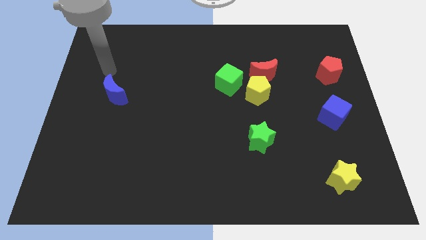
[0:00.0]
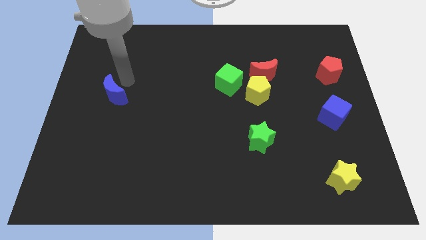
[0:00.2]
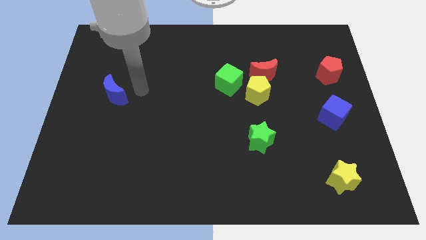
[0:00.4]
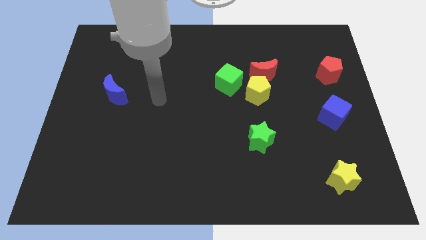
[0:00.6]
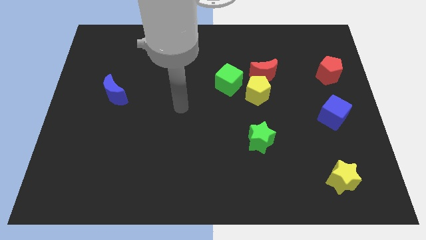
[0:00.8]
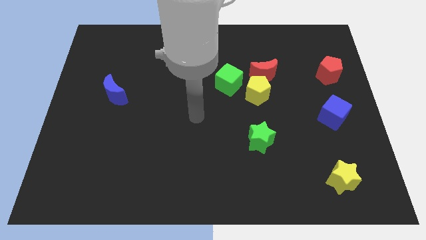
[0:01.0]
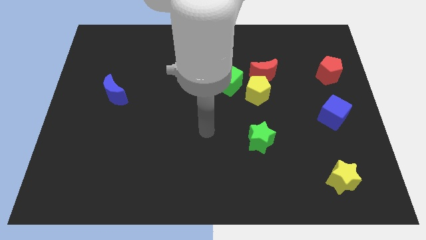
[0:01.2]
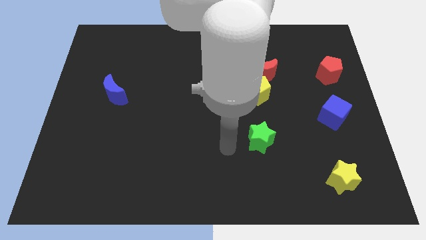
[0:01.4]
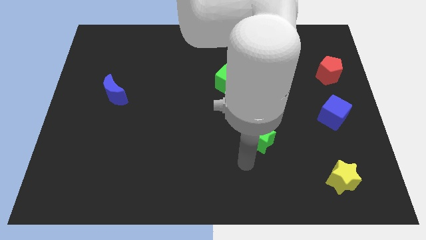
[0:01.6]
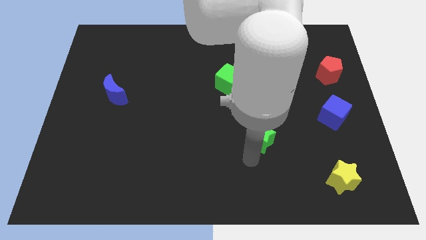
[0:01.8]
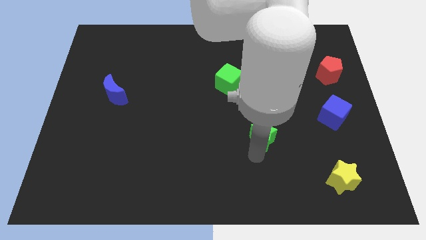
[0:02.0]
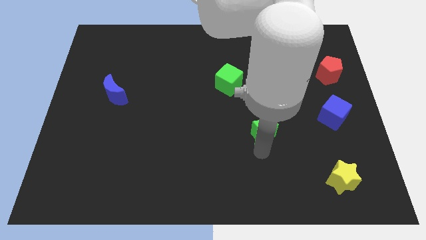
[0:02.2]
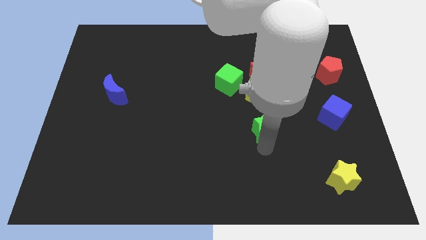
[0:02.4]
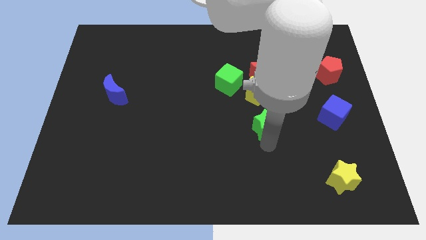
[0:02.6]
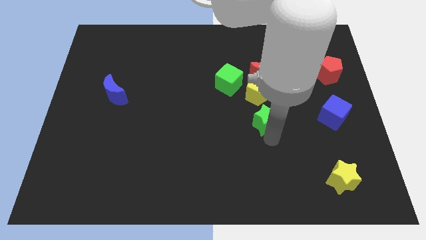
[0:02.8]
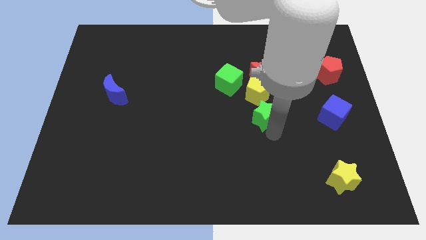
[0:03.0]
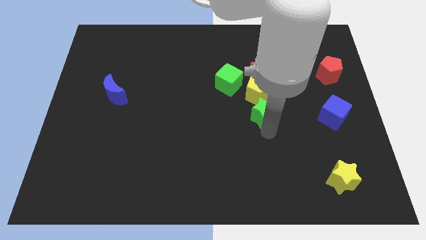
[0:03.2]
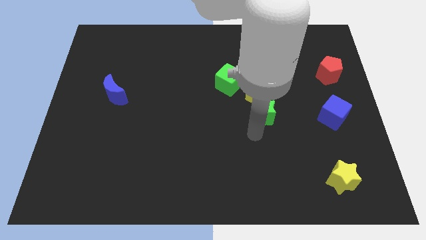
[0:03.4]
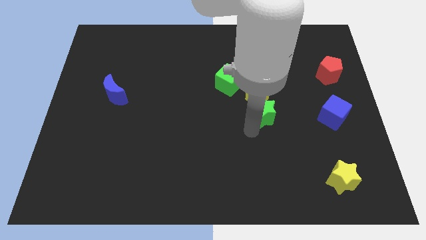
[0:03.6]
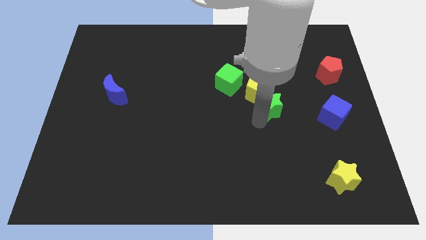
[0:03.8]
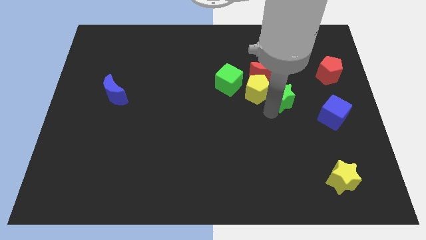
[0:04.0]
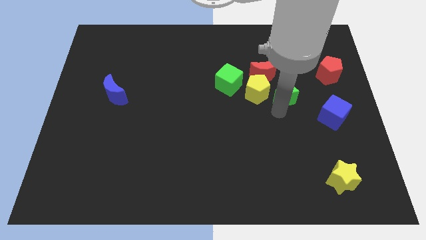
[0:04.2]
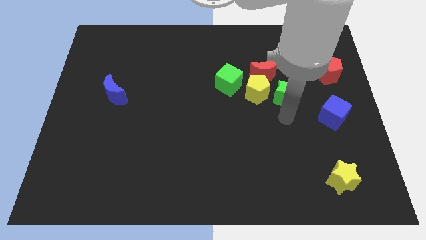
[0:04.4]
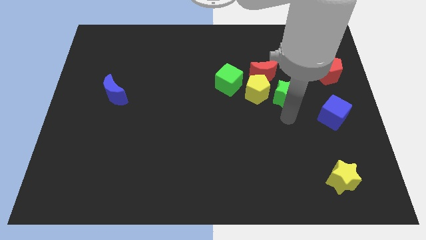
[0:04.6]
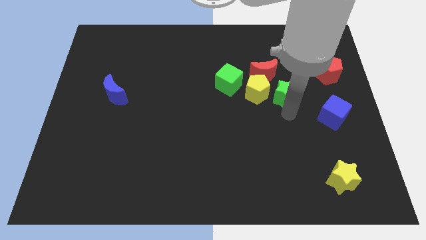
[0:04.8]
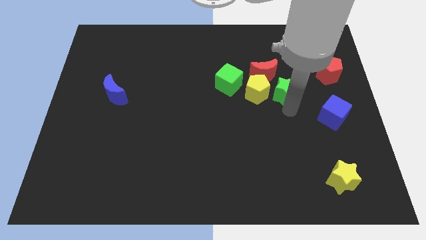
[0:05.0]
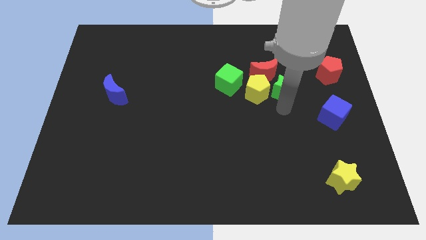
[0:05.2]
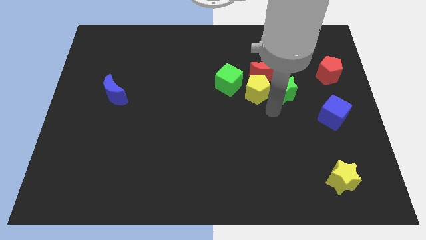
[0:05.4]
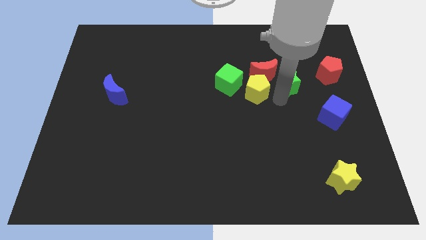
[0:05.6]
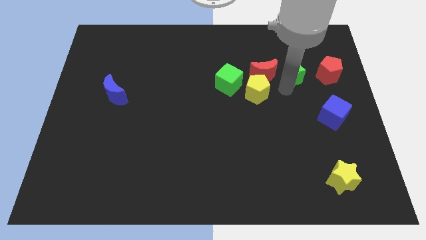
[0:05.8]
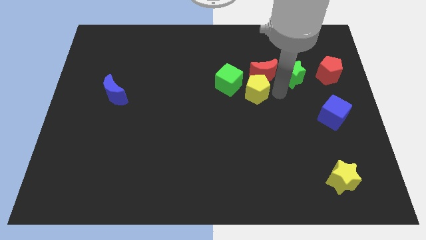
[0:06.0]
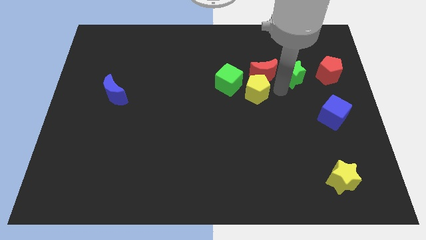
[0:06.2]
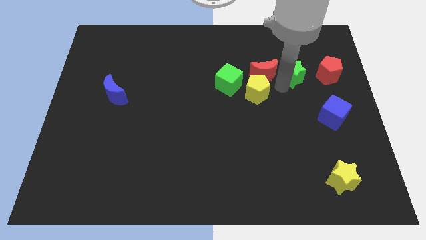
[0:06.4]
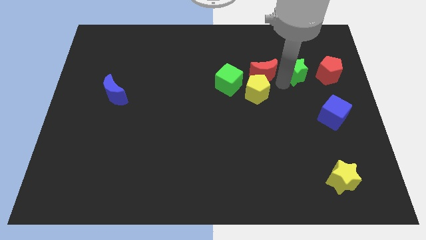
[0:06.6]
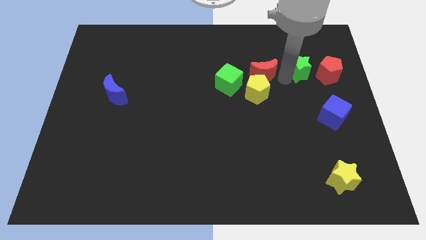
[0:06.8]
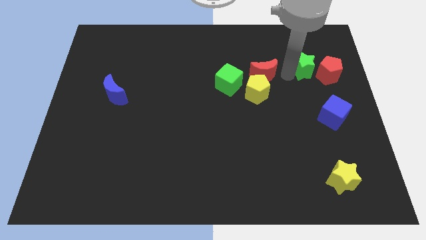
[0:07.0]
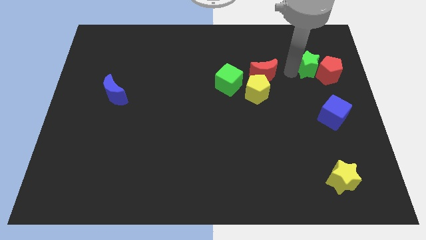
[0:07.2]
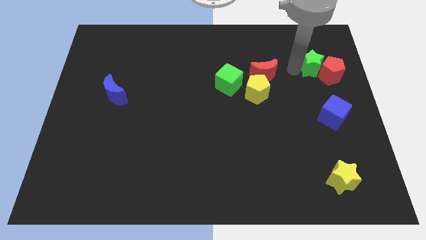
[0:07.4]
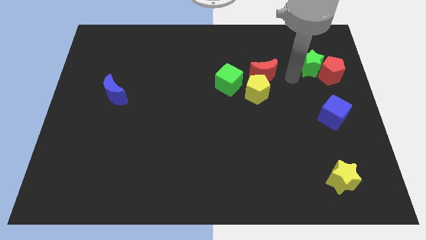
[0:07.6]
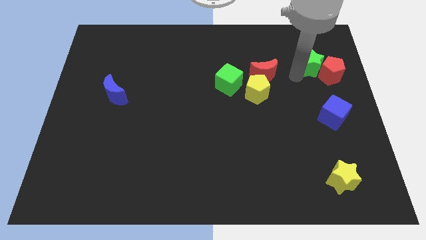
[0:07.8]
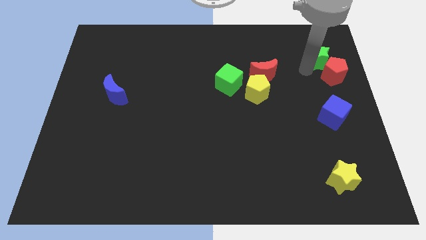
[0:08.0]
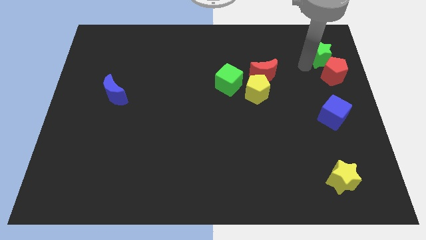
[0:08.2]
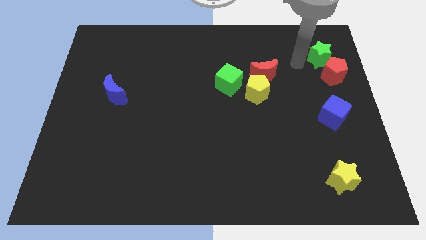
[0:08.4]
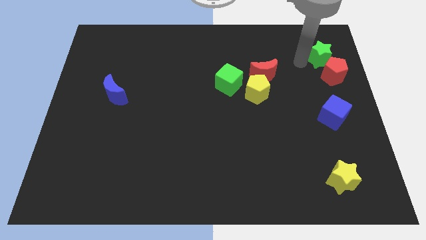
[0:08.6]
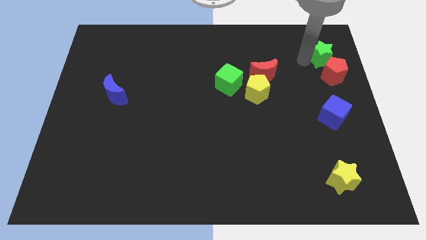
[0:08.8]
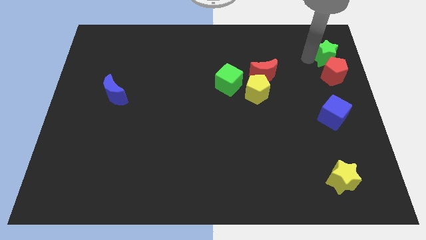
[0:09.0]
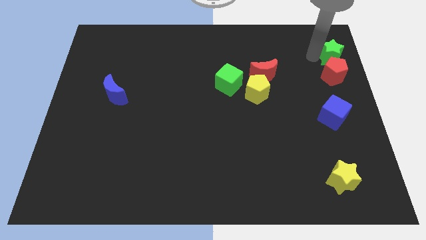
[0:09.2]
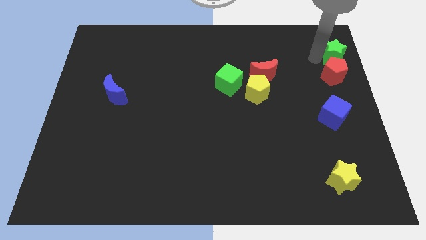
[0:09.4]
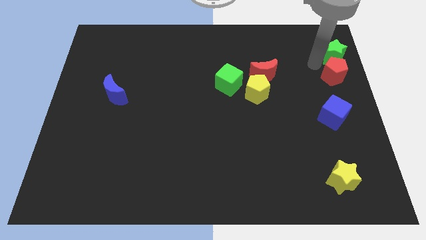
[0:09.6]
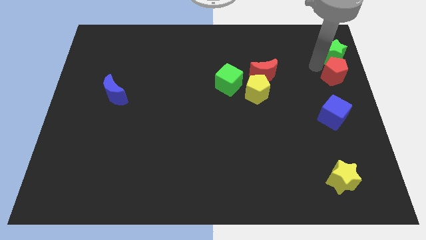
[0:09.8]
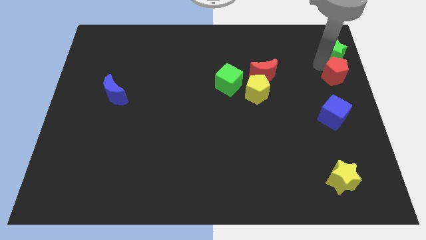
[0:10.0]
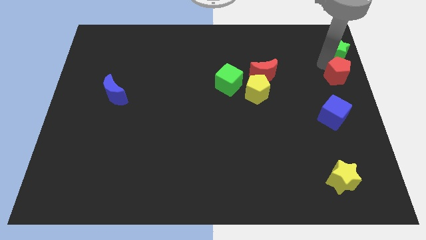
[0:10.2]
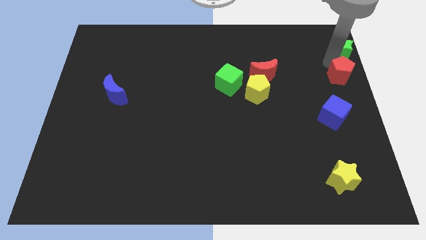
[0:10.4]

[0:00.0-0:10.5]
move the green star to the top right
